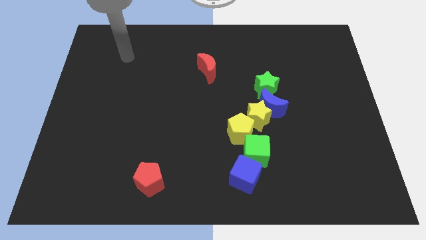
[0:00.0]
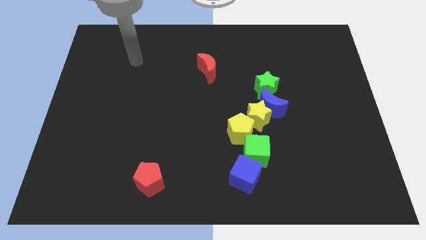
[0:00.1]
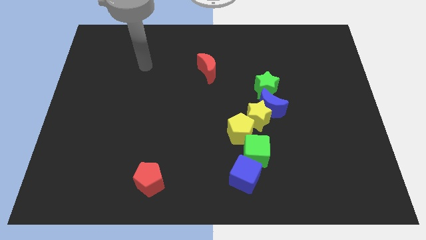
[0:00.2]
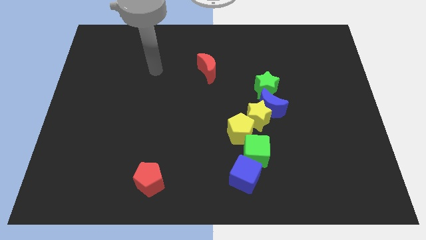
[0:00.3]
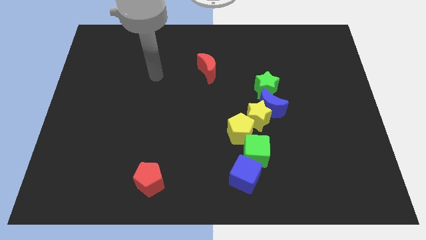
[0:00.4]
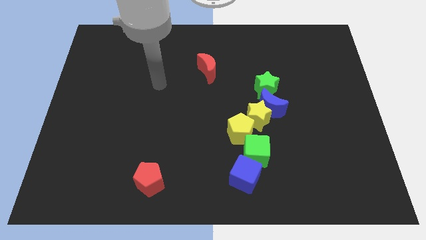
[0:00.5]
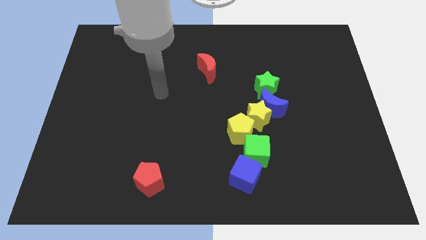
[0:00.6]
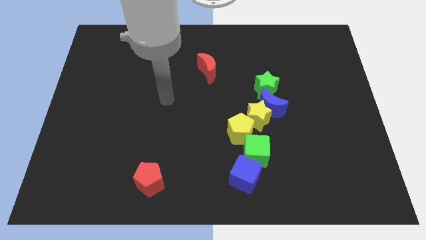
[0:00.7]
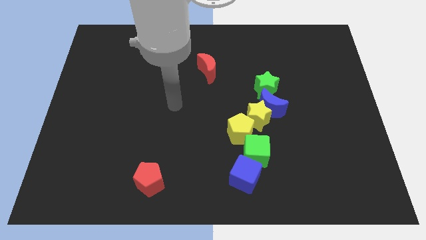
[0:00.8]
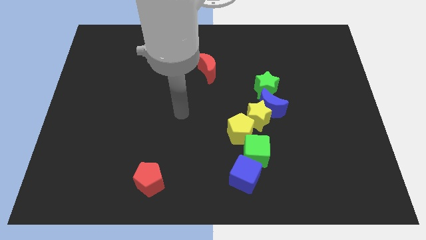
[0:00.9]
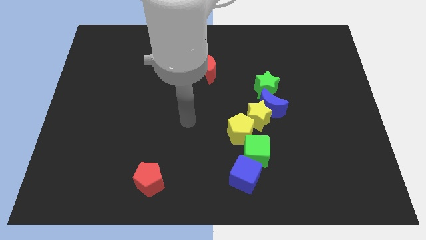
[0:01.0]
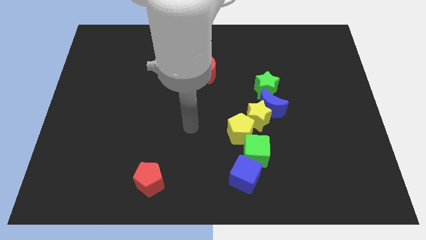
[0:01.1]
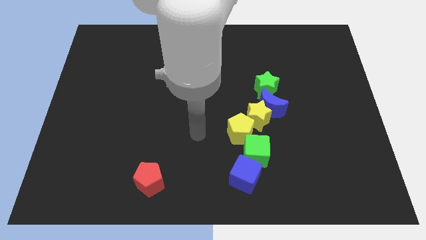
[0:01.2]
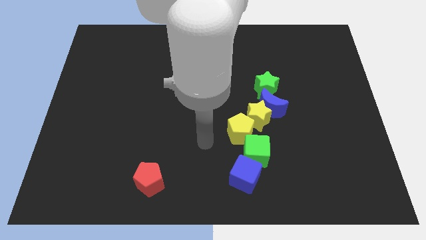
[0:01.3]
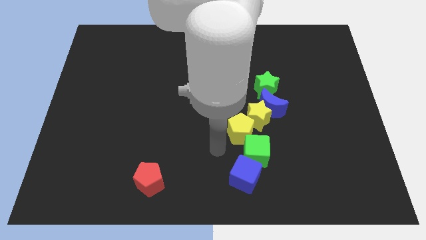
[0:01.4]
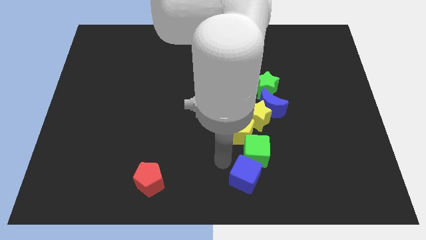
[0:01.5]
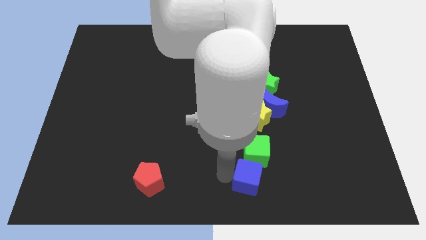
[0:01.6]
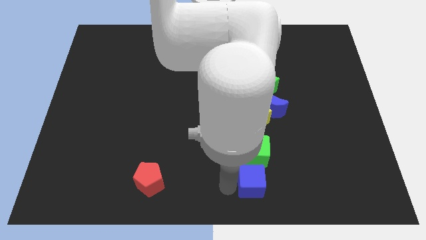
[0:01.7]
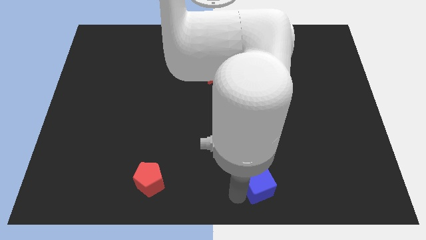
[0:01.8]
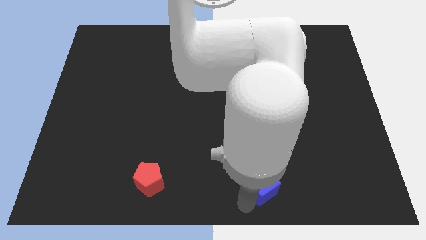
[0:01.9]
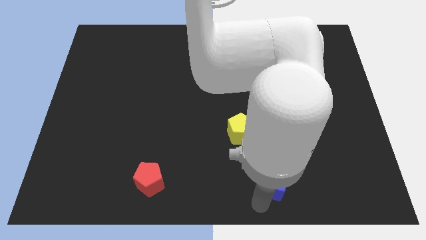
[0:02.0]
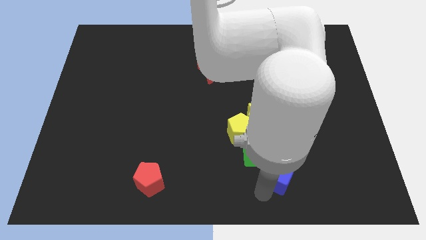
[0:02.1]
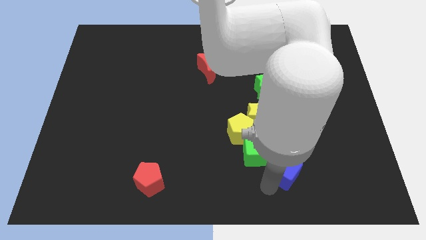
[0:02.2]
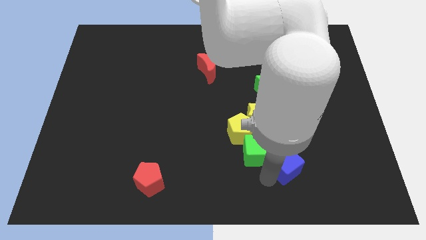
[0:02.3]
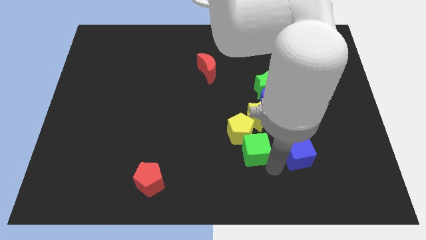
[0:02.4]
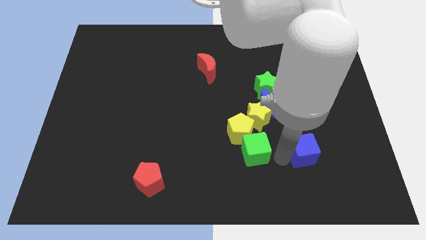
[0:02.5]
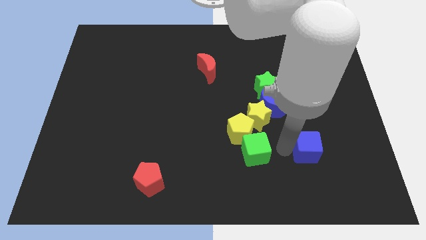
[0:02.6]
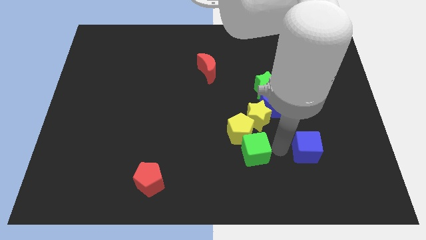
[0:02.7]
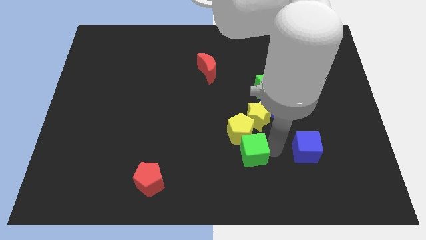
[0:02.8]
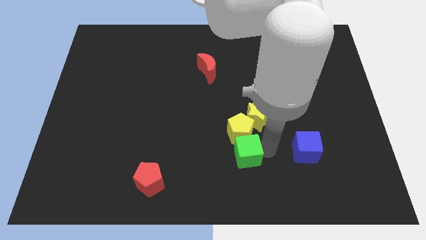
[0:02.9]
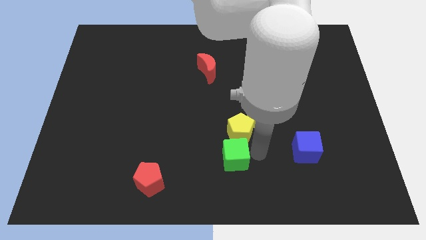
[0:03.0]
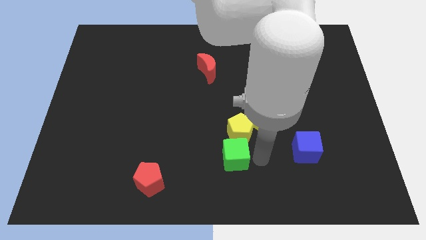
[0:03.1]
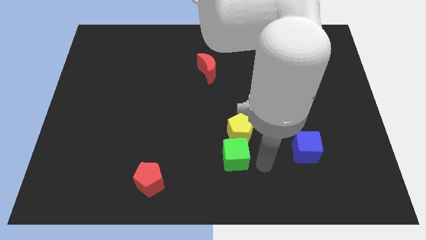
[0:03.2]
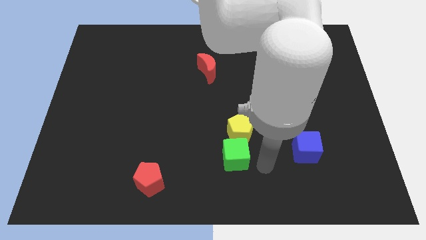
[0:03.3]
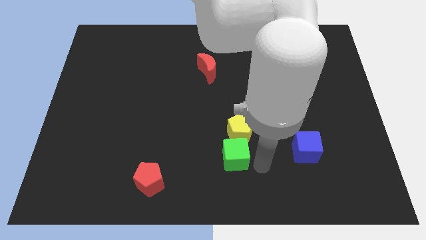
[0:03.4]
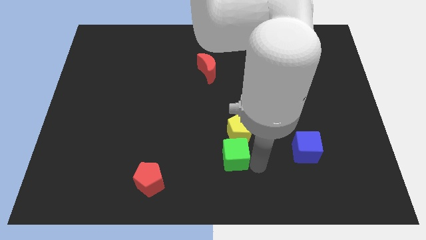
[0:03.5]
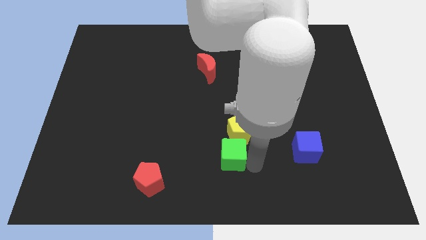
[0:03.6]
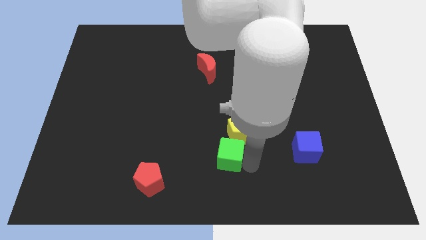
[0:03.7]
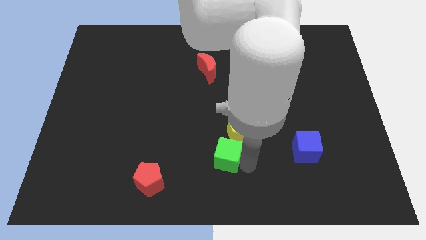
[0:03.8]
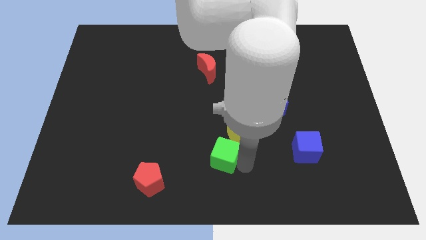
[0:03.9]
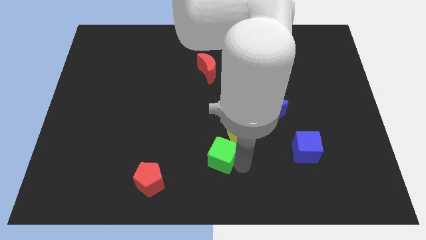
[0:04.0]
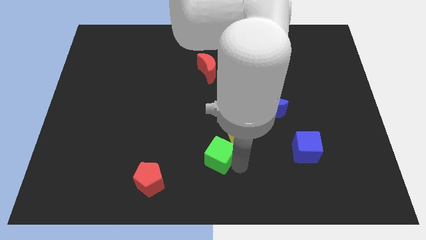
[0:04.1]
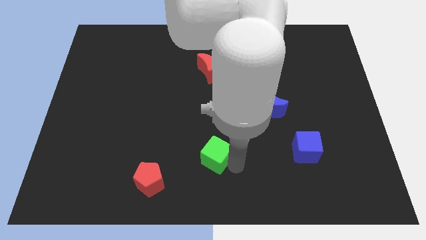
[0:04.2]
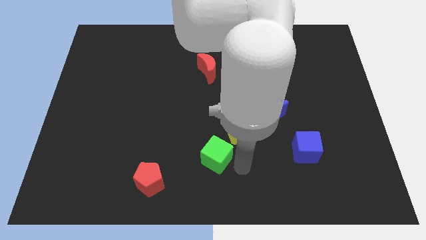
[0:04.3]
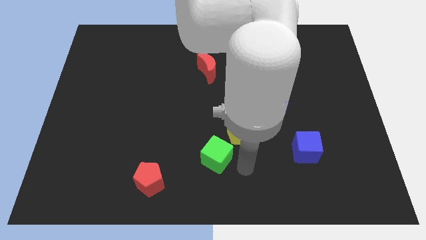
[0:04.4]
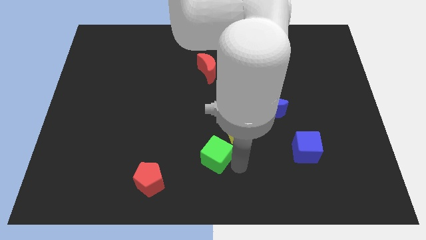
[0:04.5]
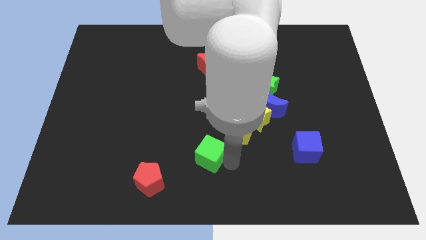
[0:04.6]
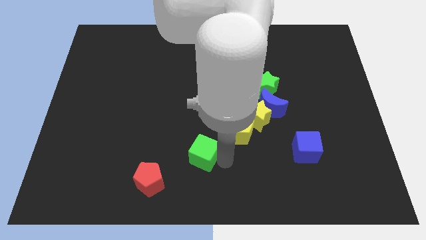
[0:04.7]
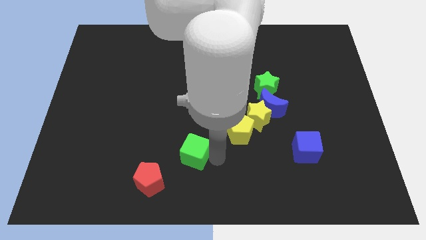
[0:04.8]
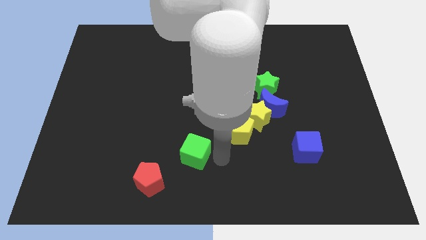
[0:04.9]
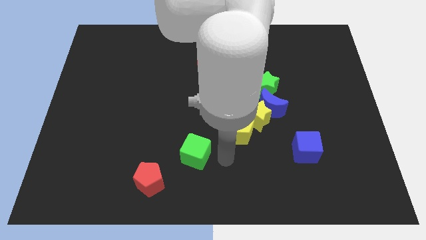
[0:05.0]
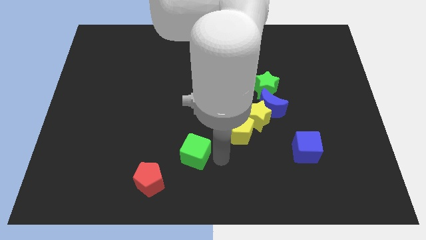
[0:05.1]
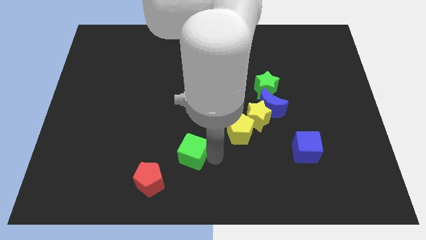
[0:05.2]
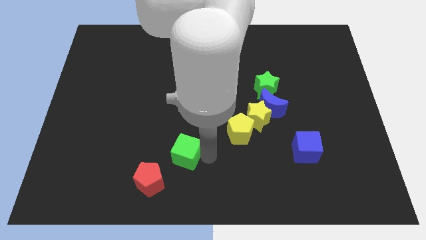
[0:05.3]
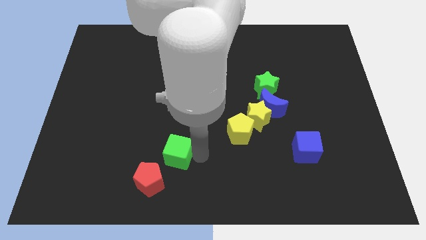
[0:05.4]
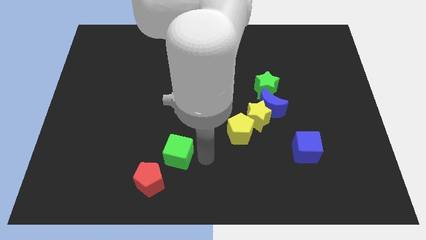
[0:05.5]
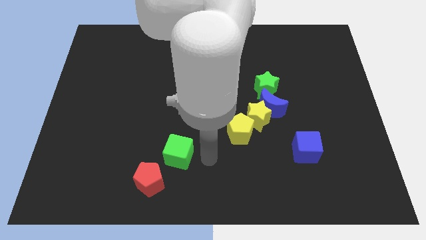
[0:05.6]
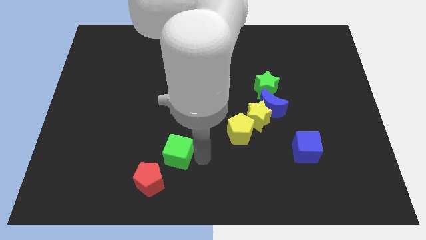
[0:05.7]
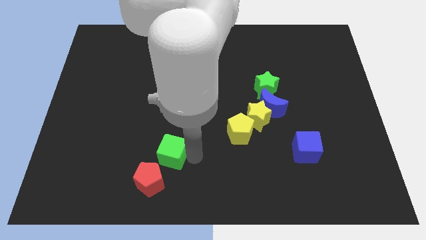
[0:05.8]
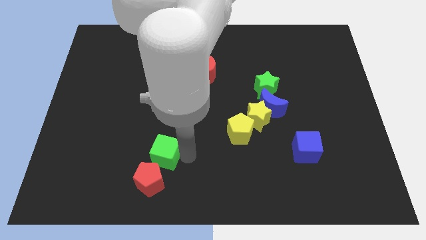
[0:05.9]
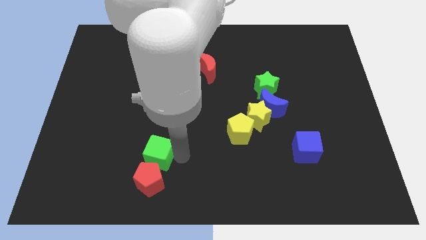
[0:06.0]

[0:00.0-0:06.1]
slide the green cube left

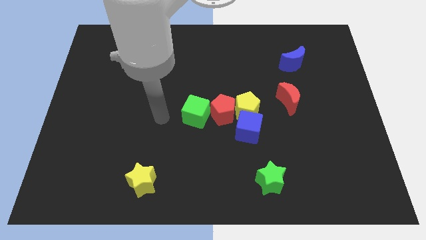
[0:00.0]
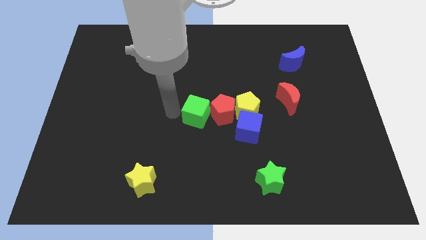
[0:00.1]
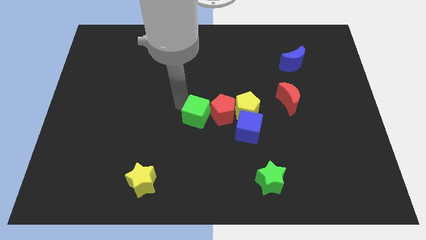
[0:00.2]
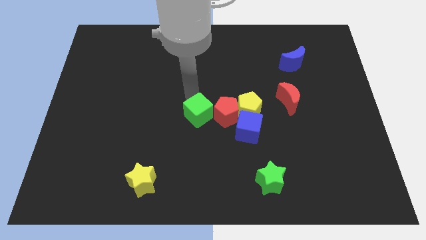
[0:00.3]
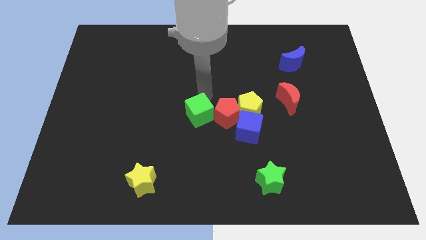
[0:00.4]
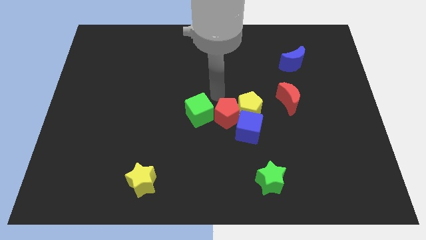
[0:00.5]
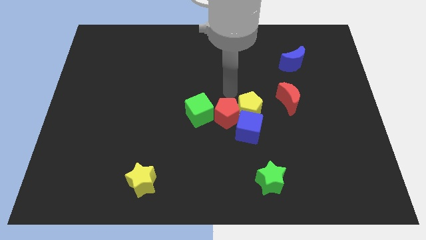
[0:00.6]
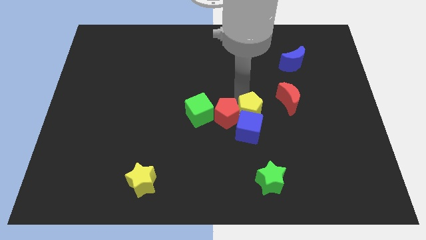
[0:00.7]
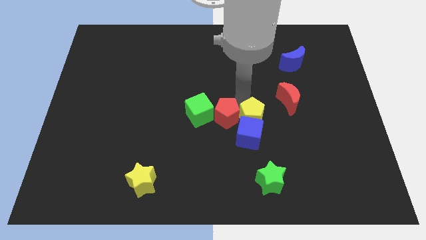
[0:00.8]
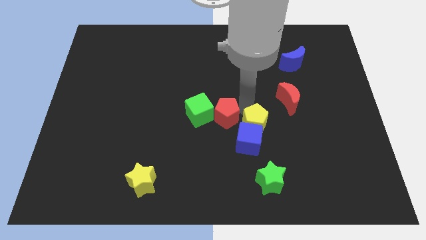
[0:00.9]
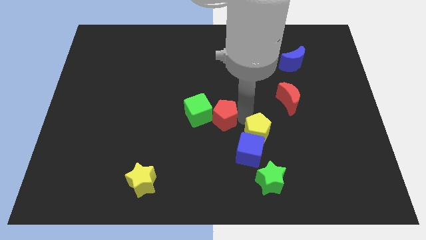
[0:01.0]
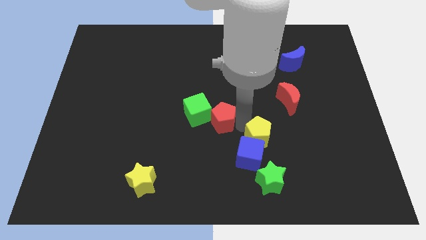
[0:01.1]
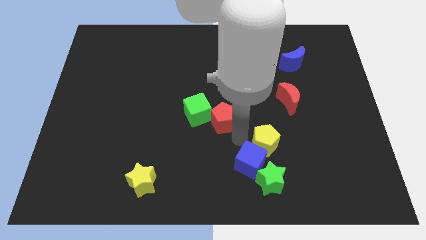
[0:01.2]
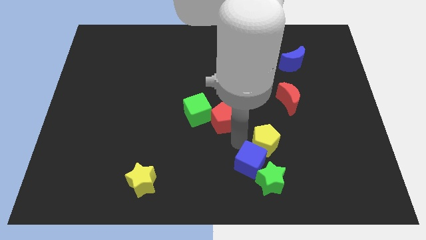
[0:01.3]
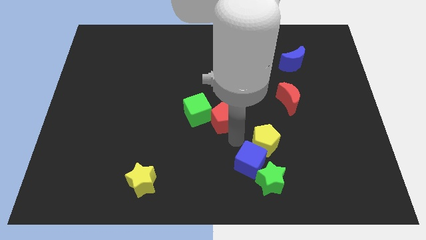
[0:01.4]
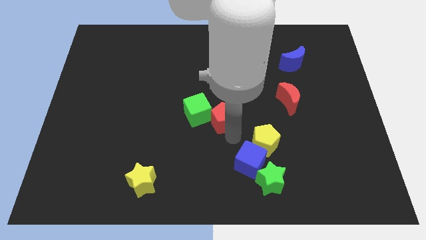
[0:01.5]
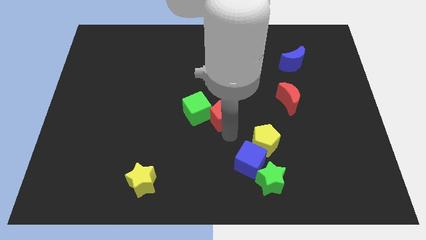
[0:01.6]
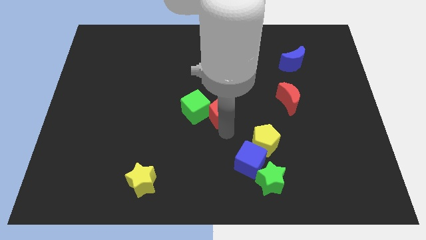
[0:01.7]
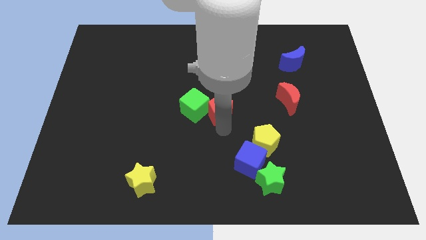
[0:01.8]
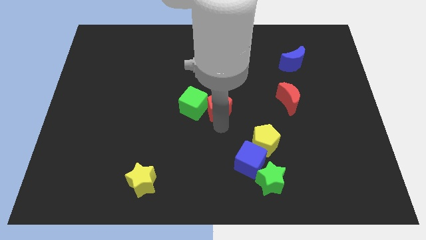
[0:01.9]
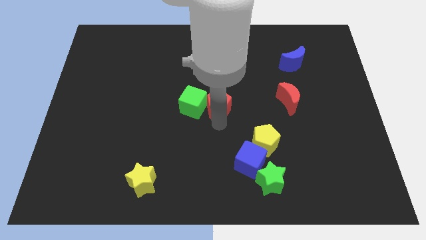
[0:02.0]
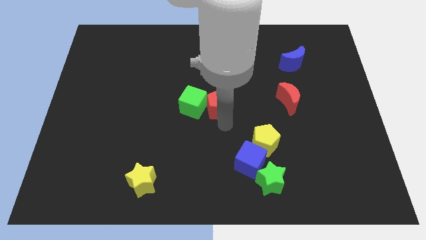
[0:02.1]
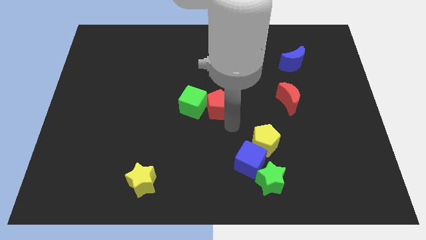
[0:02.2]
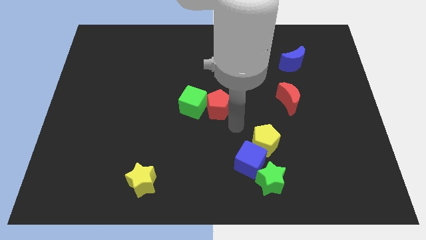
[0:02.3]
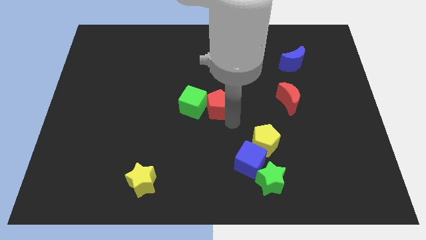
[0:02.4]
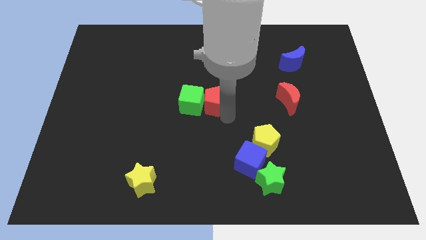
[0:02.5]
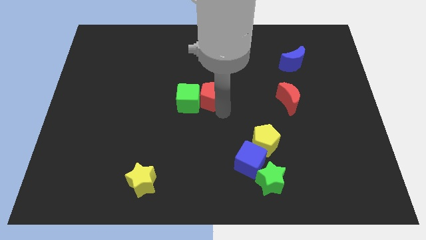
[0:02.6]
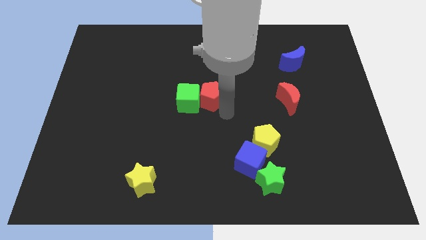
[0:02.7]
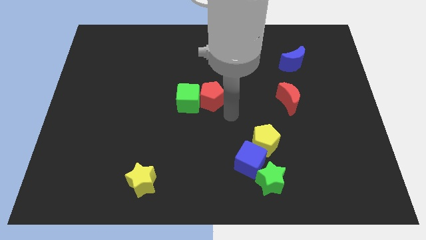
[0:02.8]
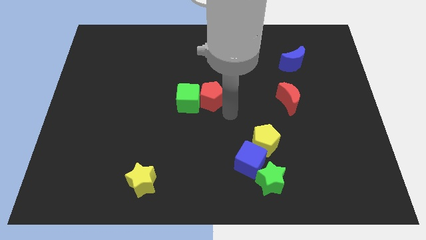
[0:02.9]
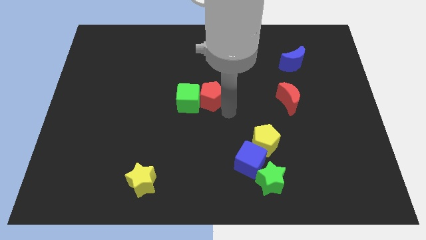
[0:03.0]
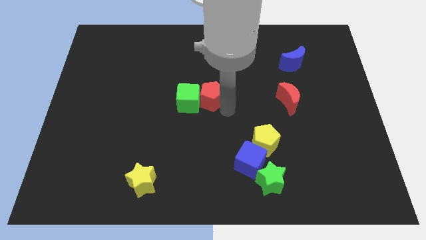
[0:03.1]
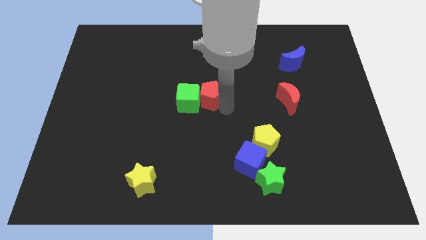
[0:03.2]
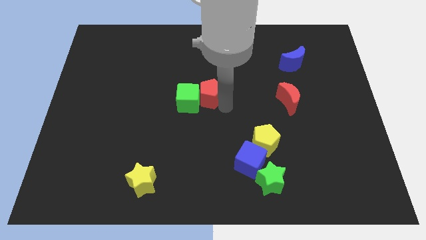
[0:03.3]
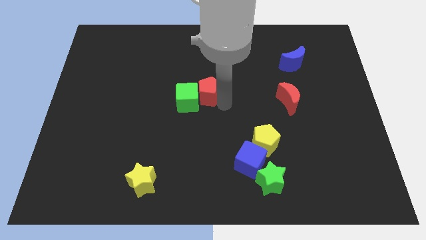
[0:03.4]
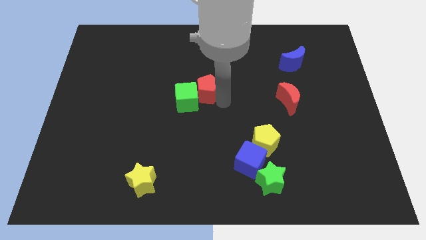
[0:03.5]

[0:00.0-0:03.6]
push the red pentagon somewhat upwards and then to the left
